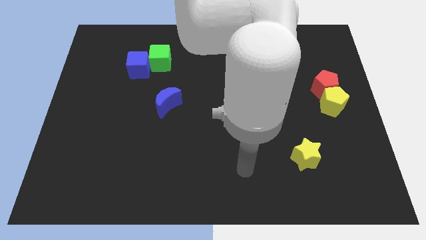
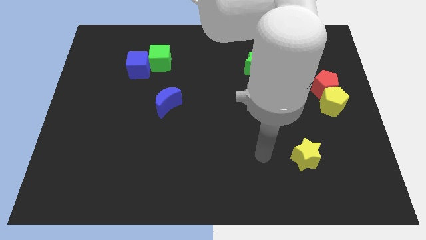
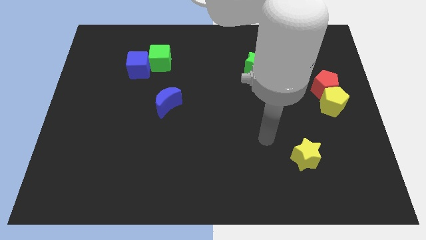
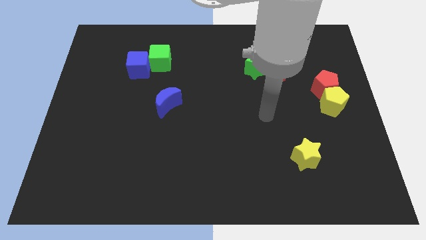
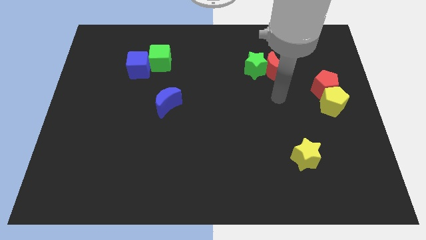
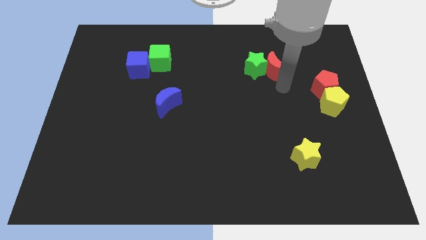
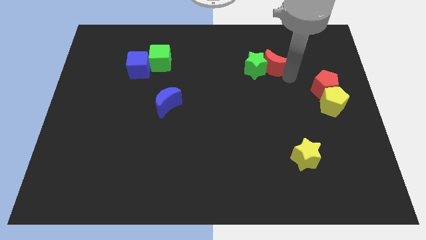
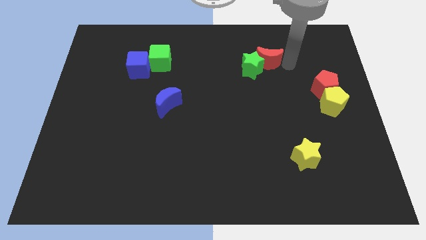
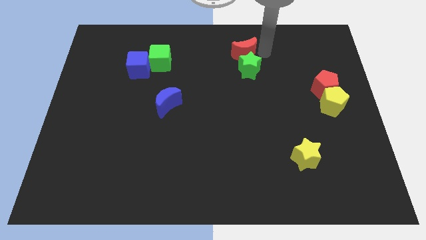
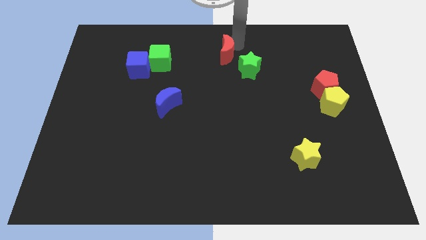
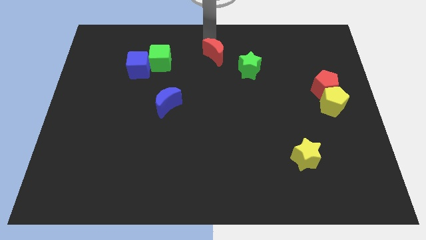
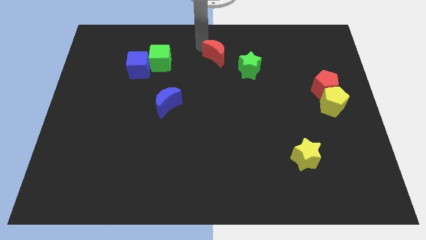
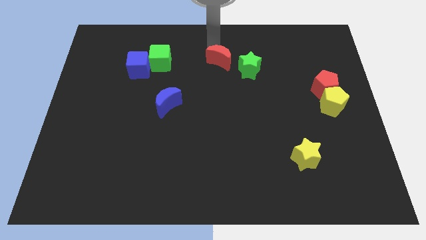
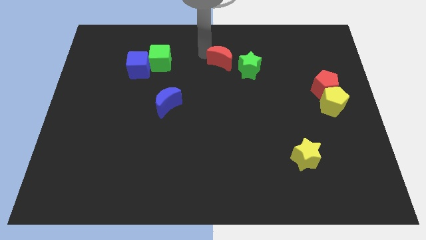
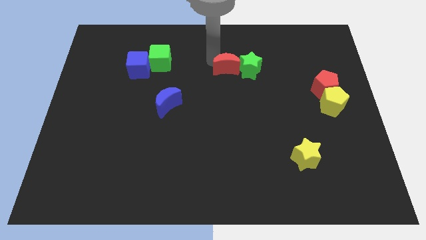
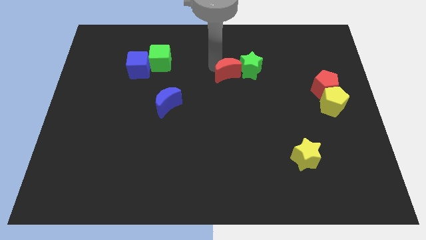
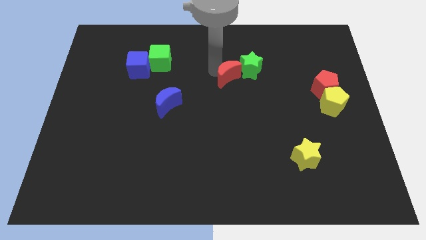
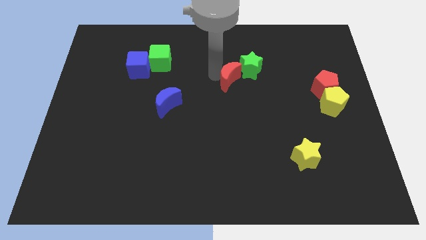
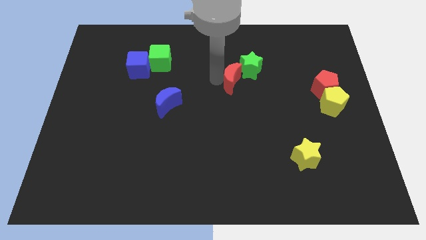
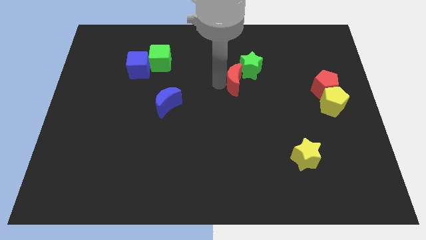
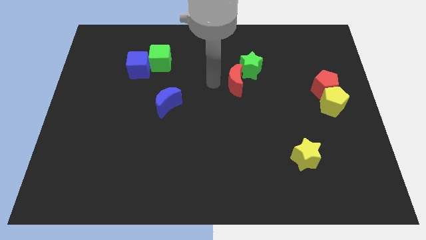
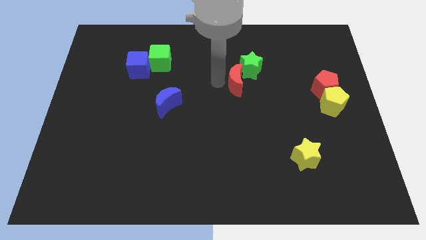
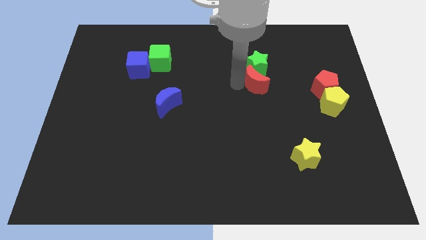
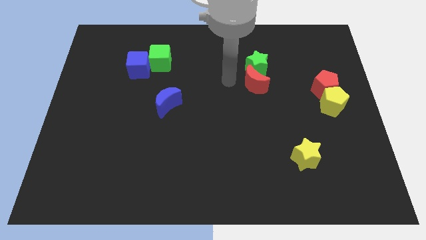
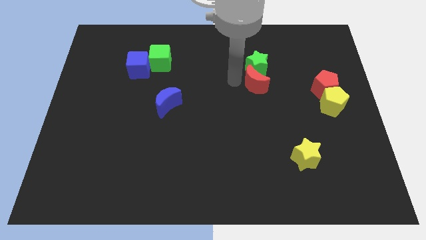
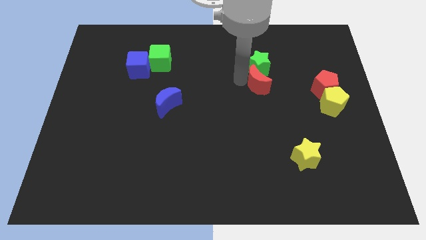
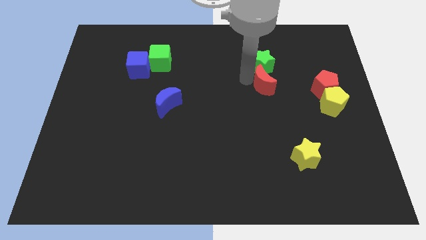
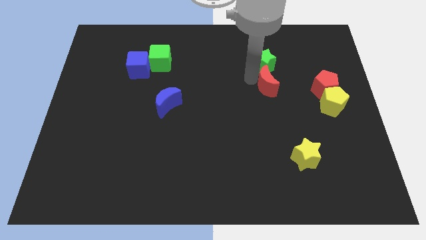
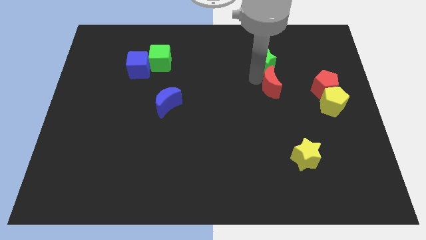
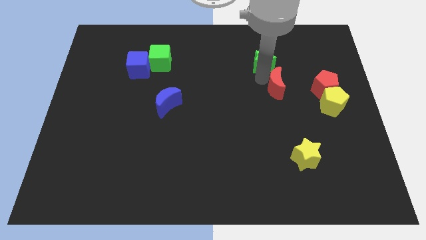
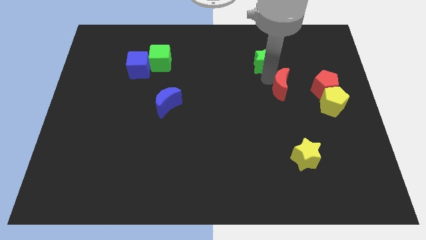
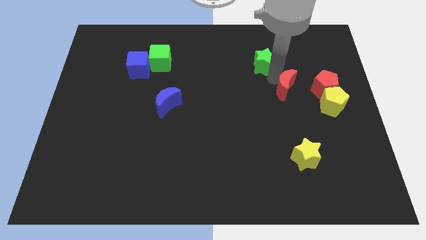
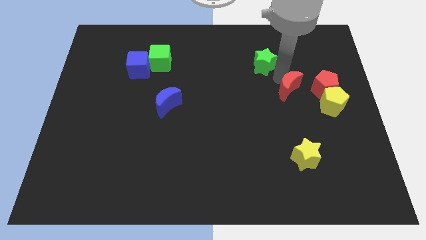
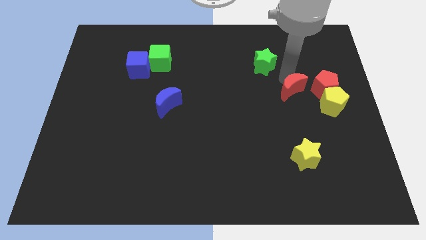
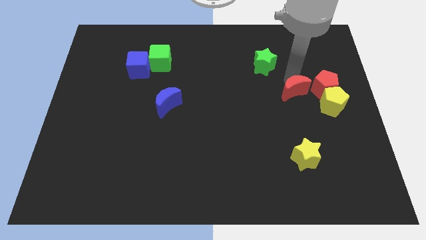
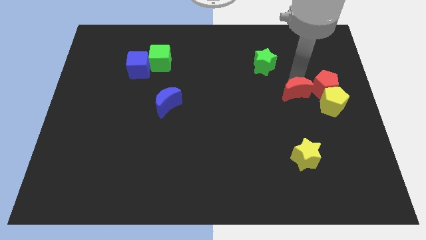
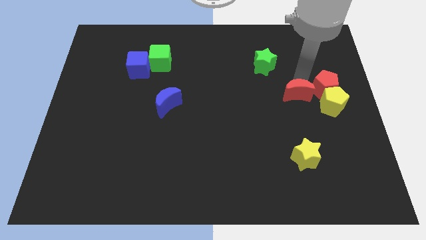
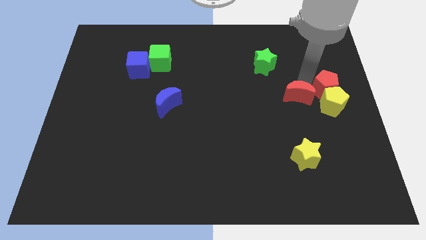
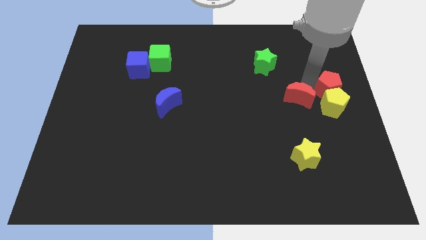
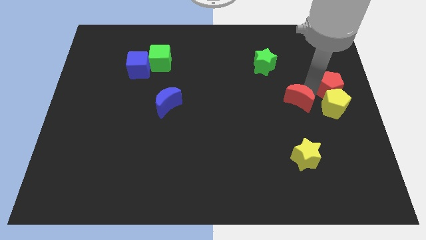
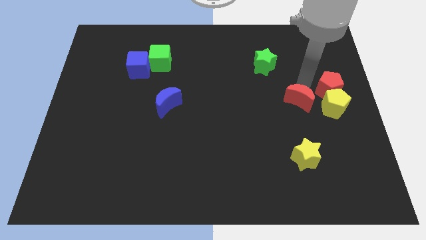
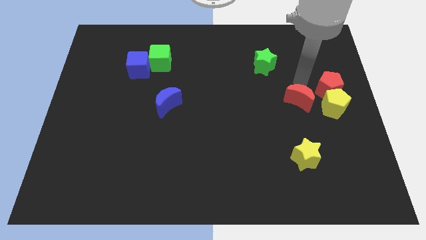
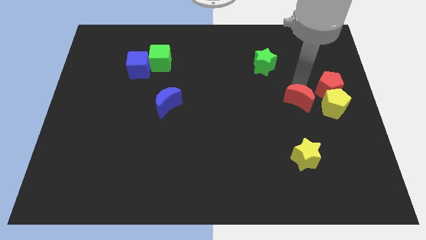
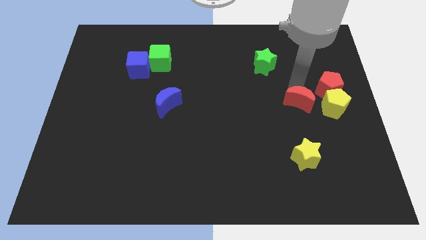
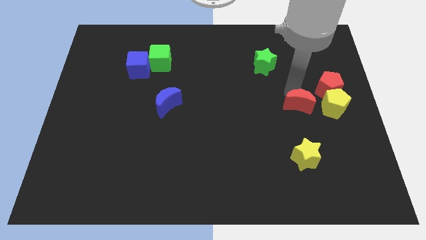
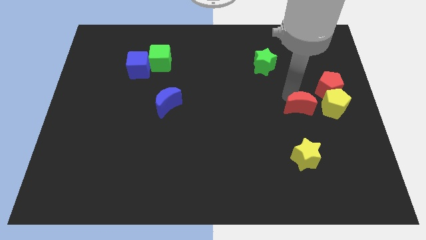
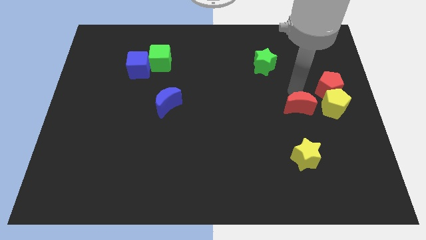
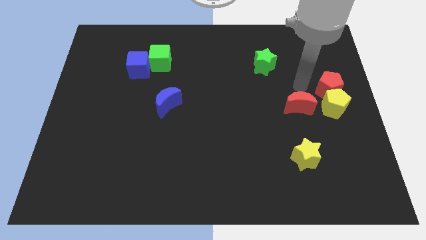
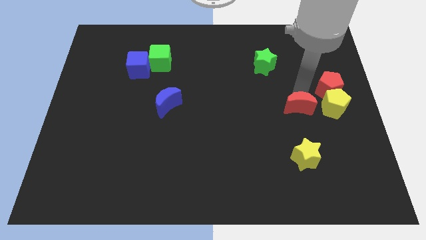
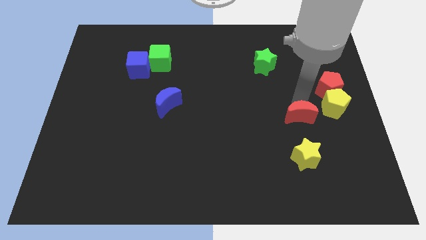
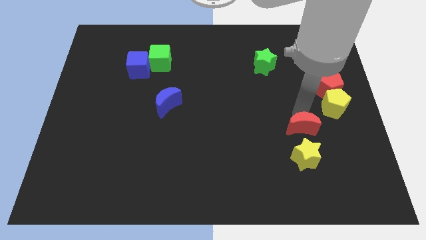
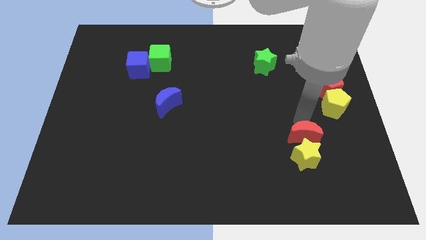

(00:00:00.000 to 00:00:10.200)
put the red moon next to the yellow star

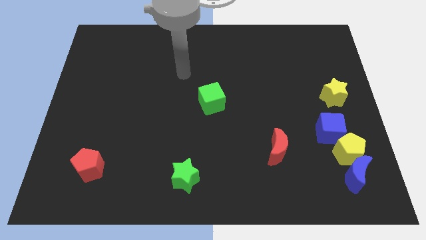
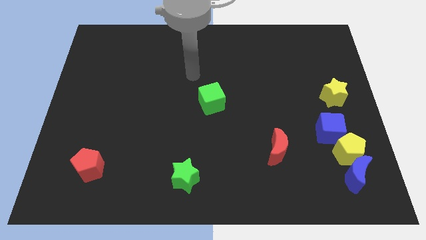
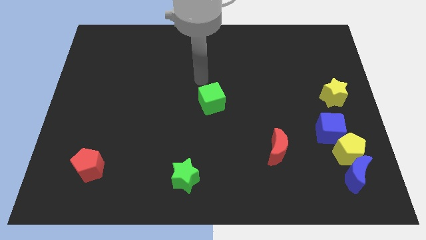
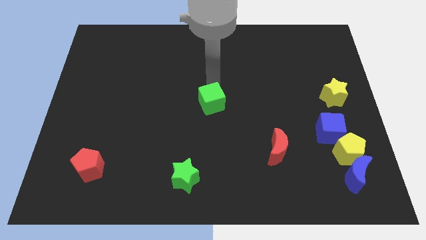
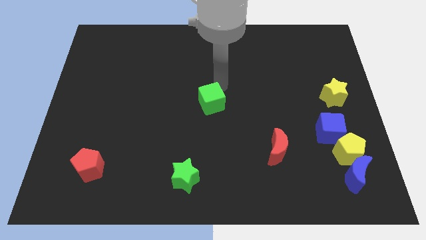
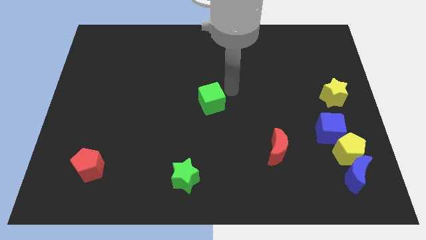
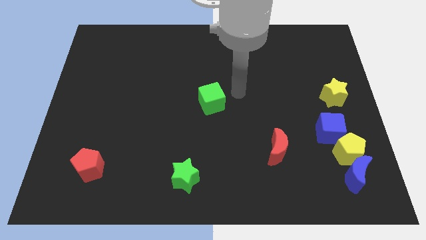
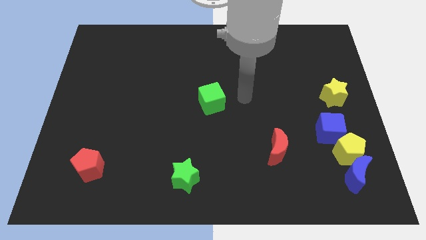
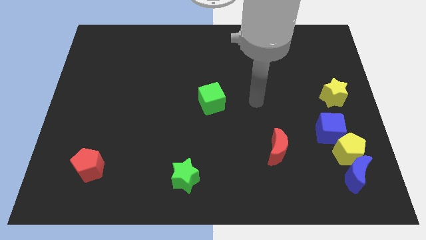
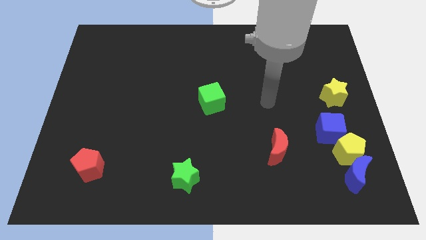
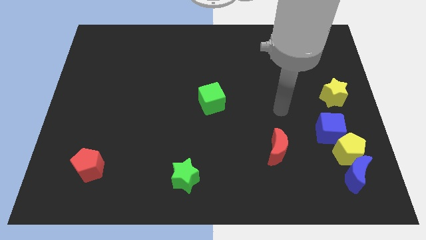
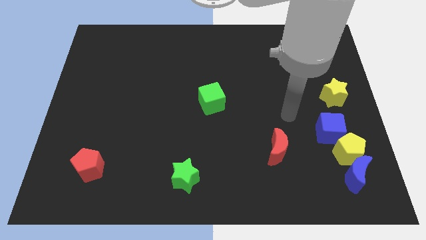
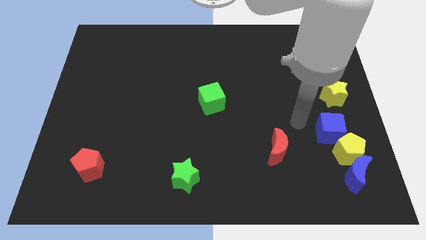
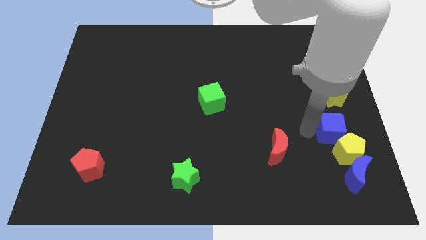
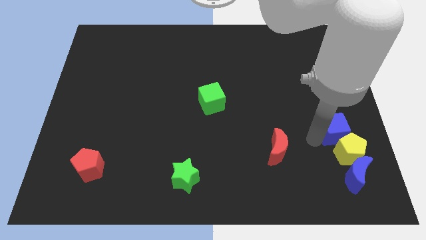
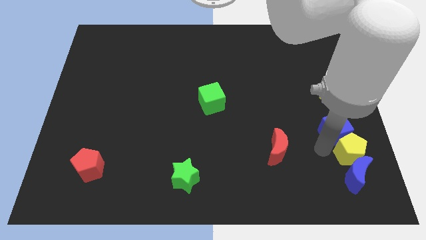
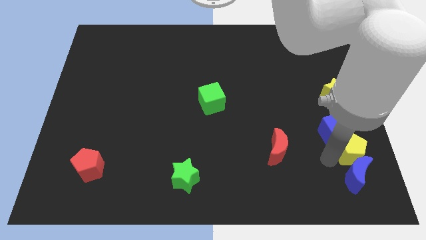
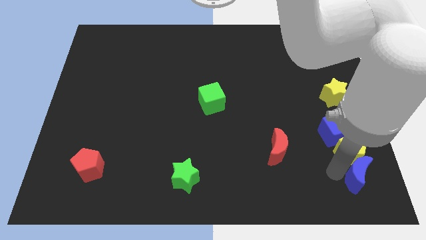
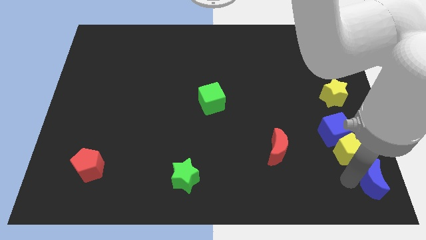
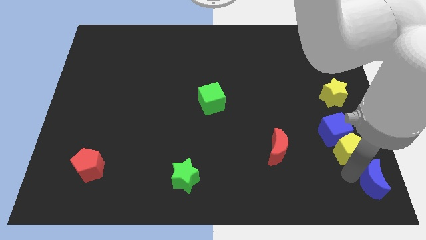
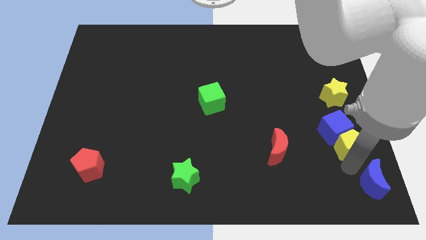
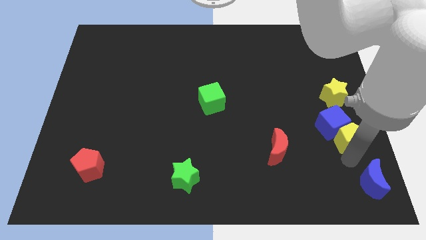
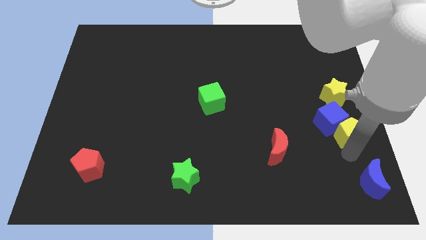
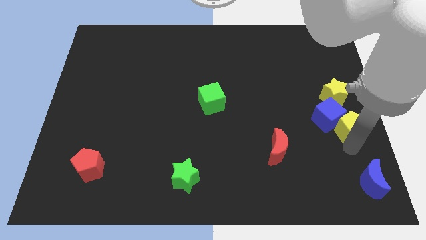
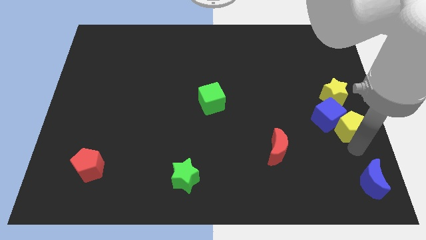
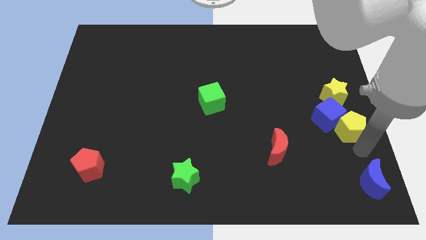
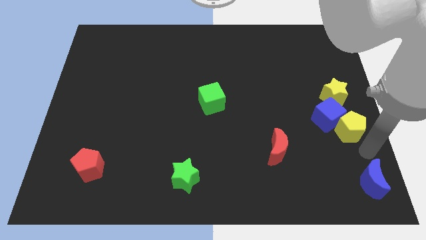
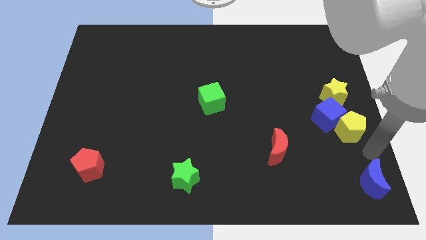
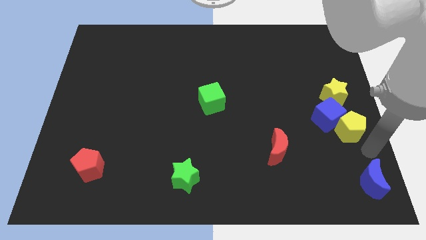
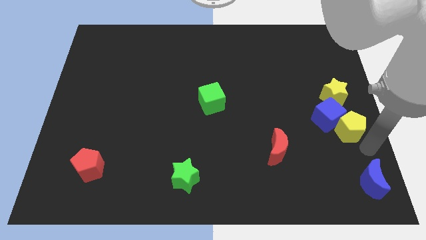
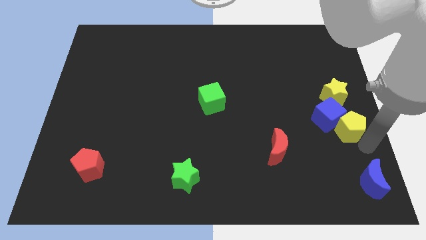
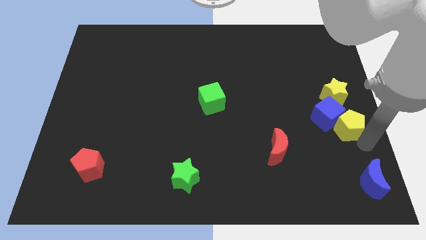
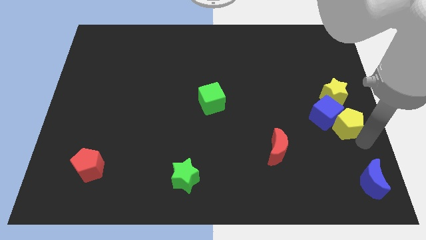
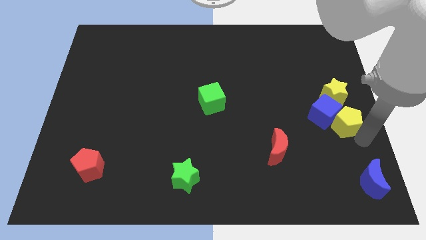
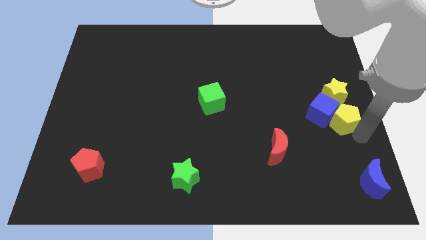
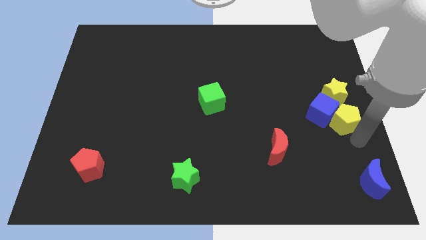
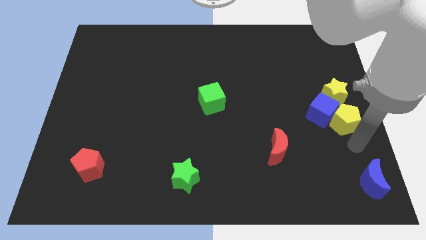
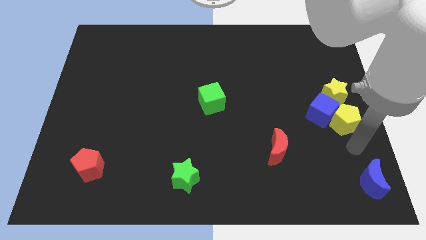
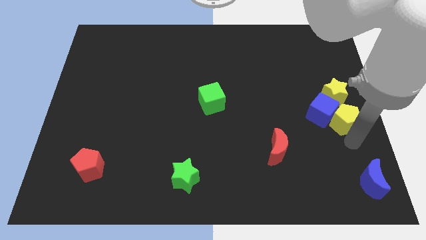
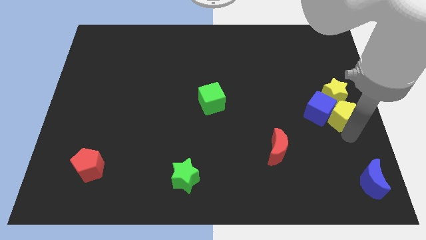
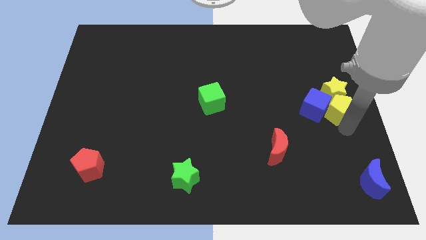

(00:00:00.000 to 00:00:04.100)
push the yellow pentagon to the yellow star
